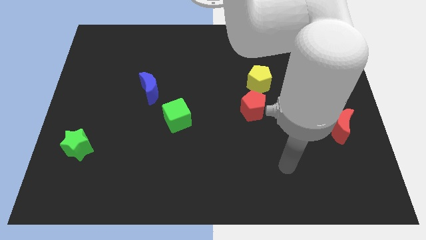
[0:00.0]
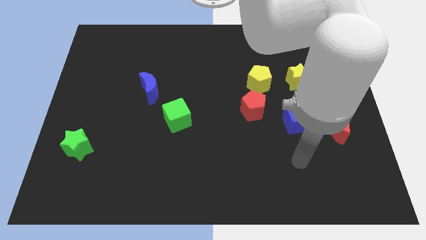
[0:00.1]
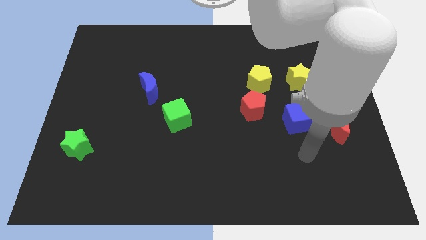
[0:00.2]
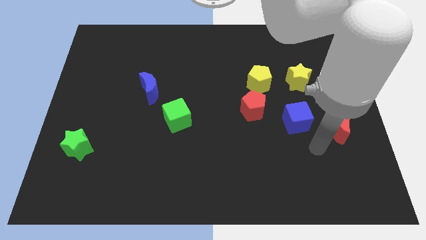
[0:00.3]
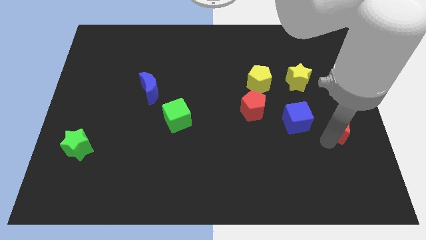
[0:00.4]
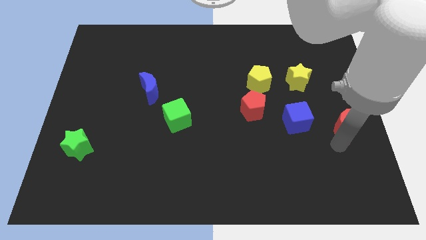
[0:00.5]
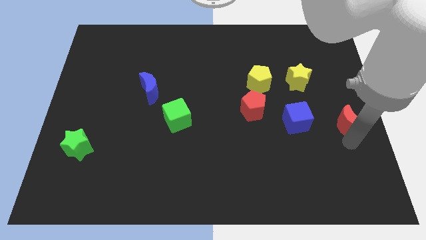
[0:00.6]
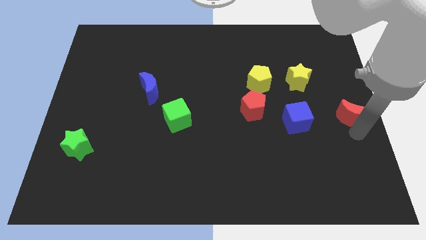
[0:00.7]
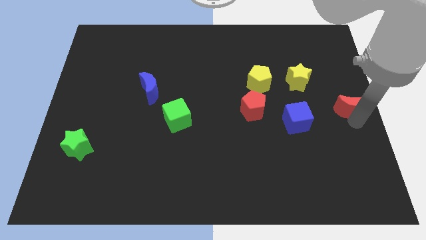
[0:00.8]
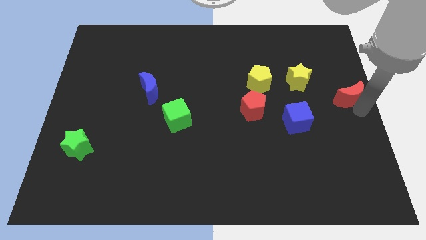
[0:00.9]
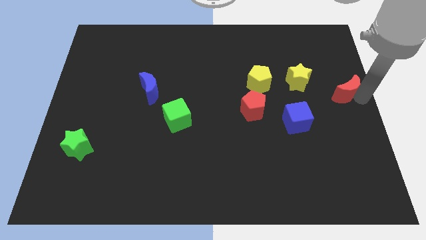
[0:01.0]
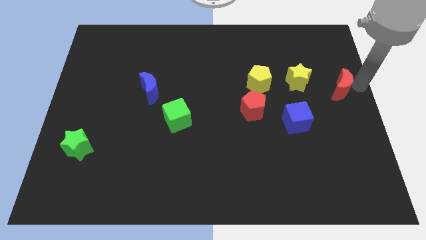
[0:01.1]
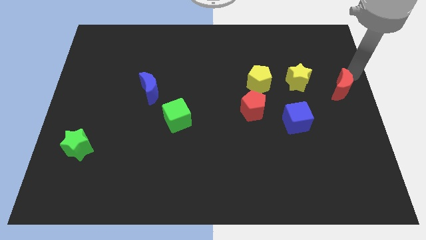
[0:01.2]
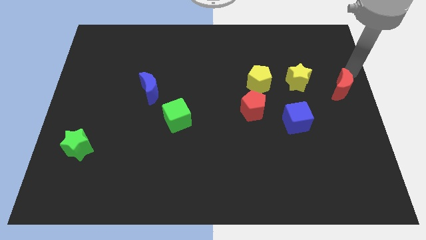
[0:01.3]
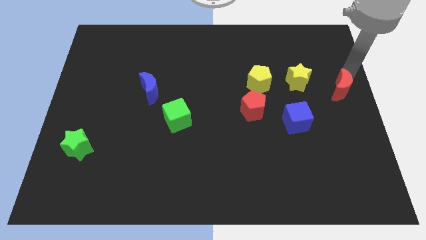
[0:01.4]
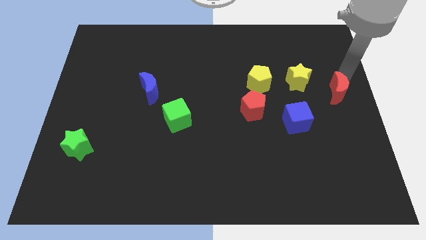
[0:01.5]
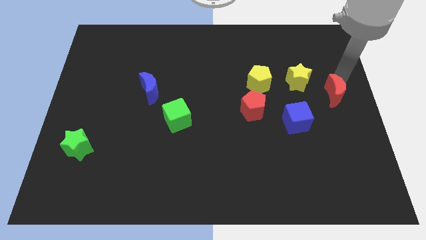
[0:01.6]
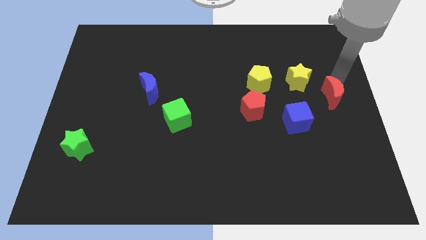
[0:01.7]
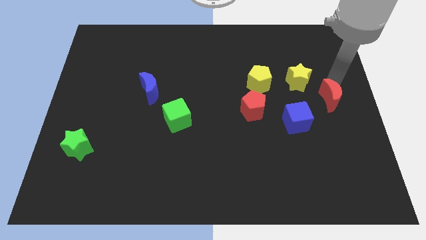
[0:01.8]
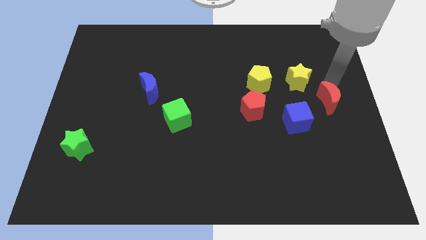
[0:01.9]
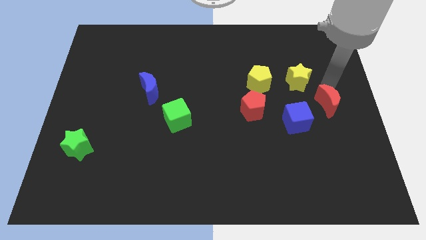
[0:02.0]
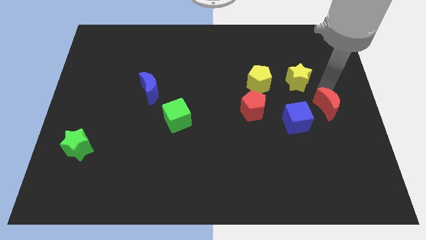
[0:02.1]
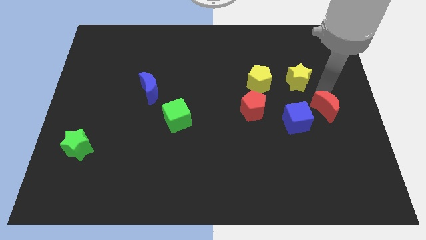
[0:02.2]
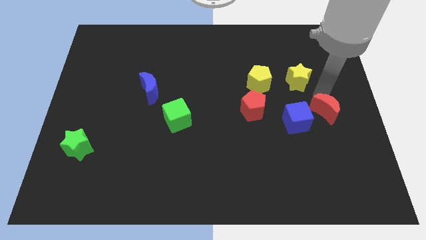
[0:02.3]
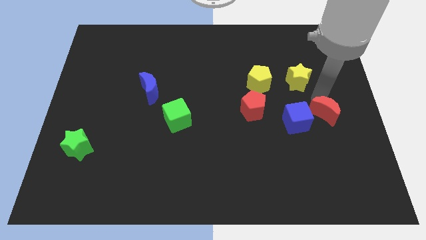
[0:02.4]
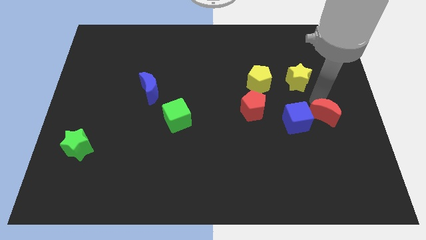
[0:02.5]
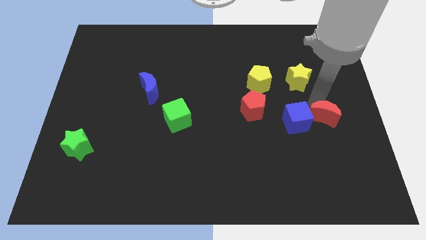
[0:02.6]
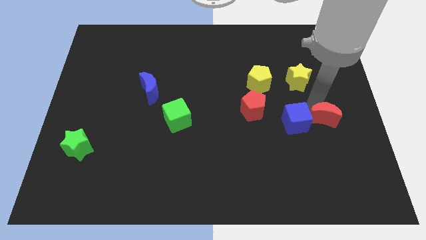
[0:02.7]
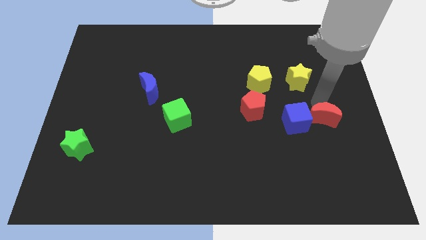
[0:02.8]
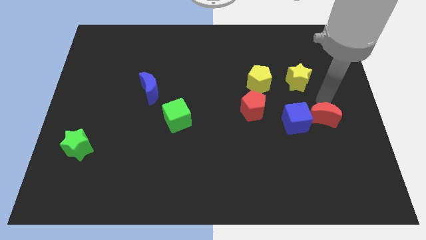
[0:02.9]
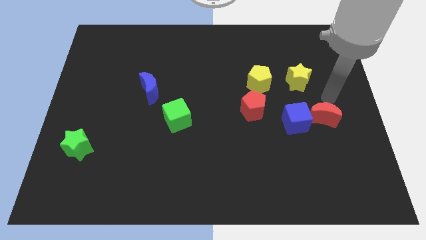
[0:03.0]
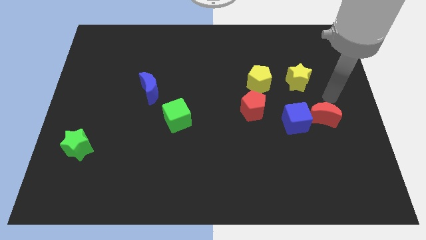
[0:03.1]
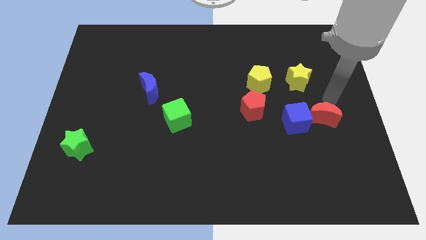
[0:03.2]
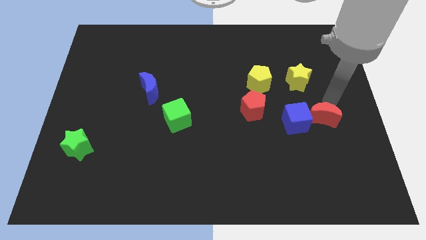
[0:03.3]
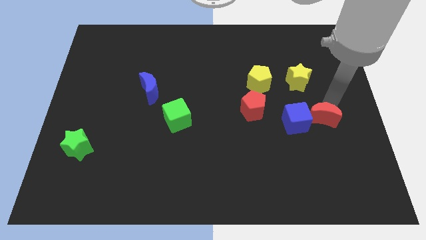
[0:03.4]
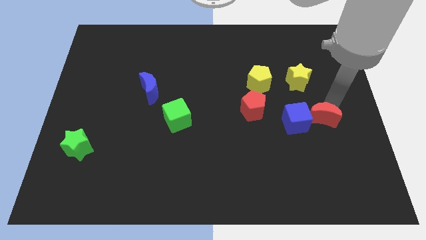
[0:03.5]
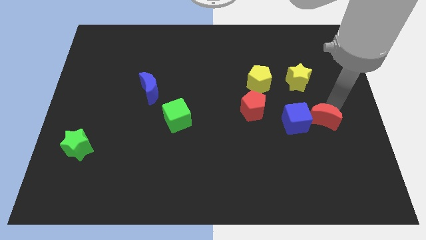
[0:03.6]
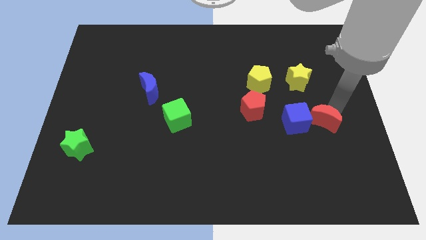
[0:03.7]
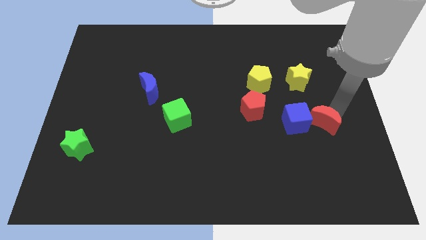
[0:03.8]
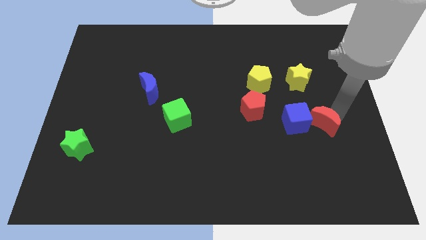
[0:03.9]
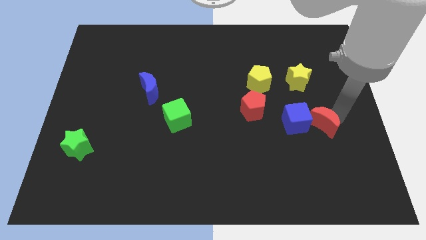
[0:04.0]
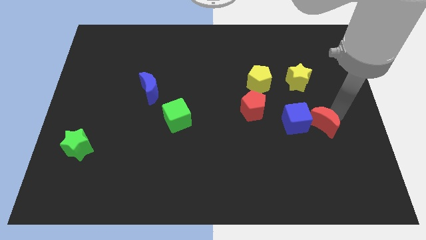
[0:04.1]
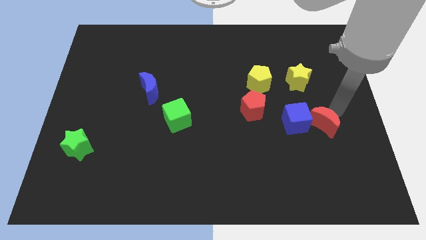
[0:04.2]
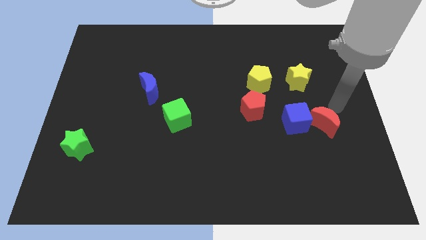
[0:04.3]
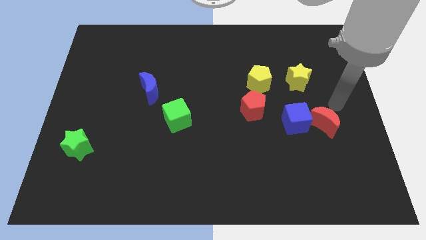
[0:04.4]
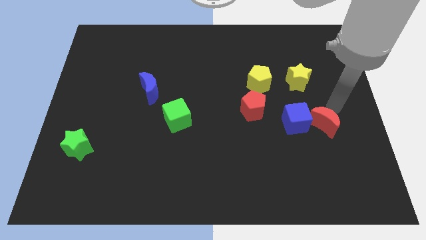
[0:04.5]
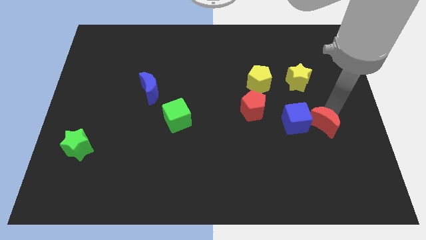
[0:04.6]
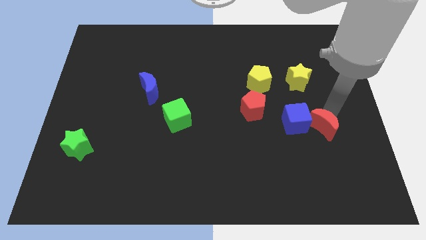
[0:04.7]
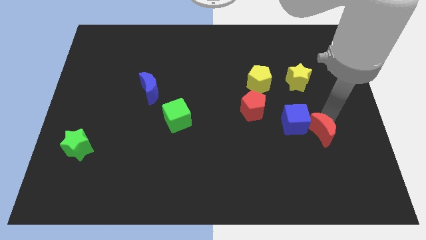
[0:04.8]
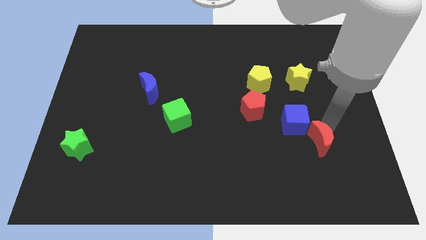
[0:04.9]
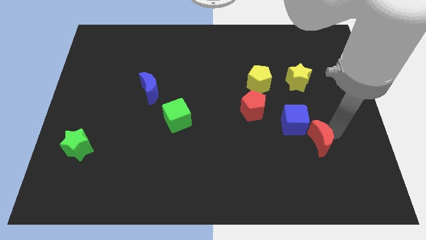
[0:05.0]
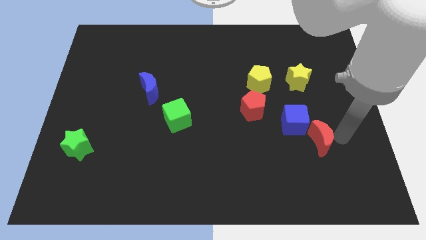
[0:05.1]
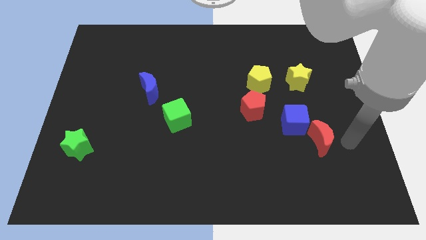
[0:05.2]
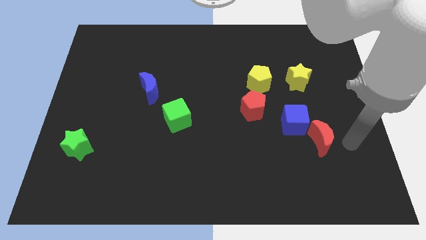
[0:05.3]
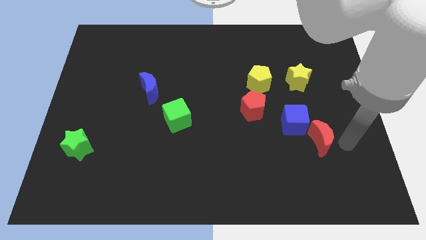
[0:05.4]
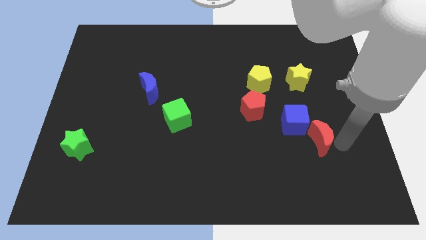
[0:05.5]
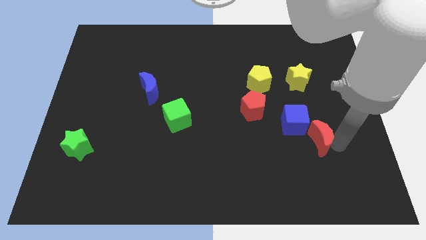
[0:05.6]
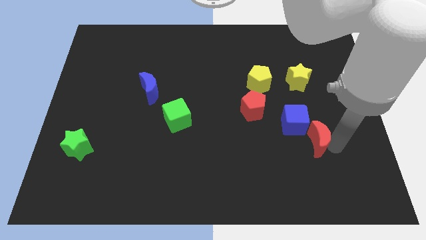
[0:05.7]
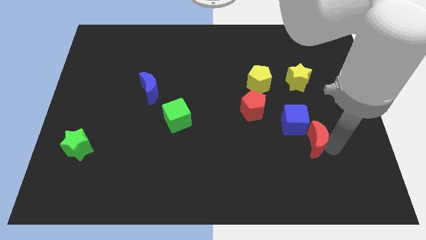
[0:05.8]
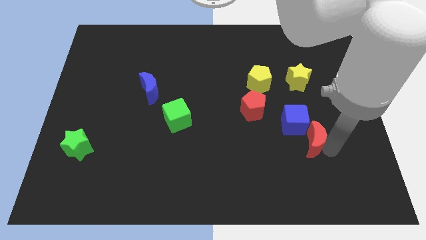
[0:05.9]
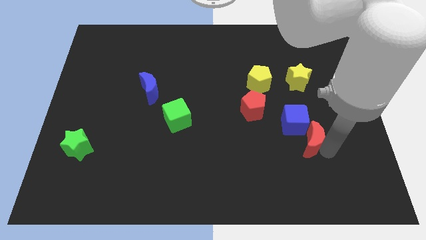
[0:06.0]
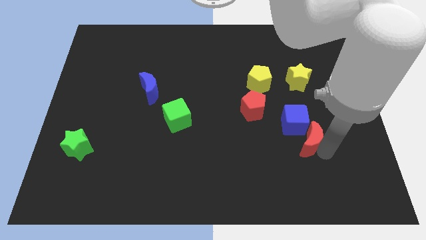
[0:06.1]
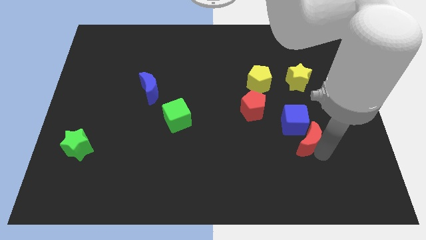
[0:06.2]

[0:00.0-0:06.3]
slide the red moon to the left a little

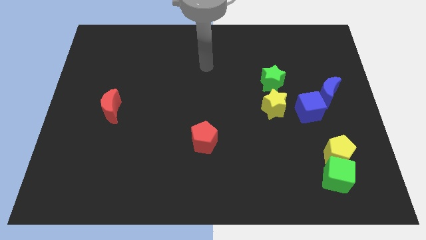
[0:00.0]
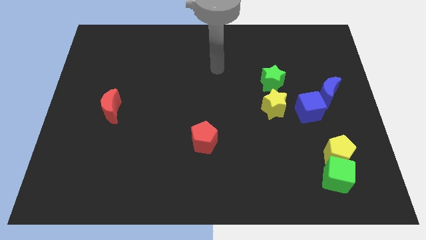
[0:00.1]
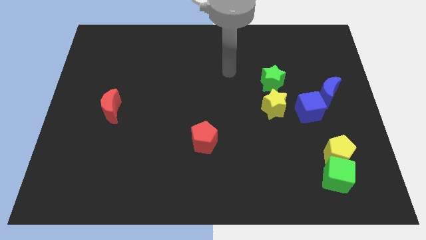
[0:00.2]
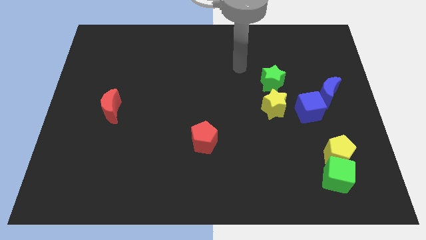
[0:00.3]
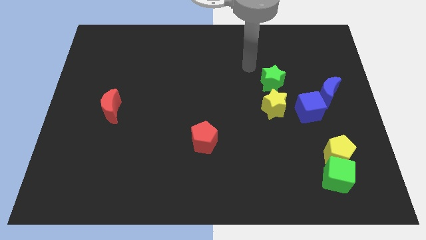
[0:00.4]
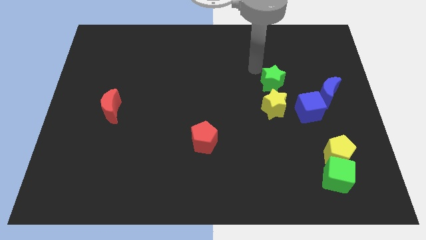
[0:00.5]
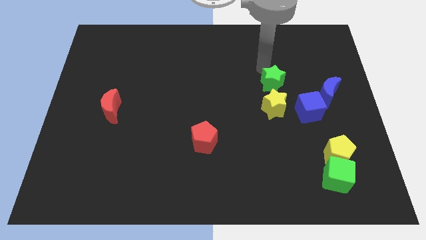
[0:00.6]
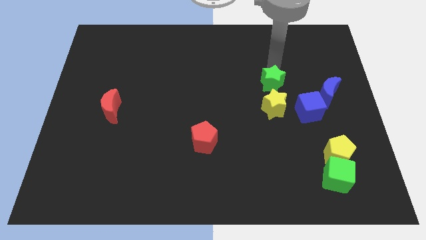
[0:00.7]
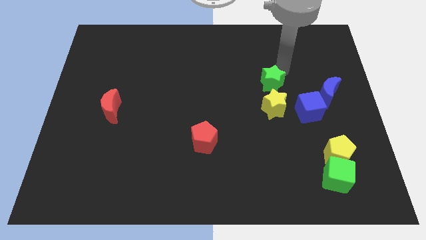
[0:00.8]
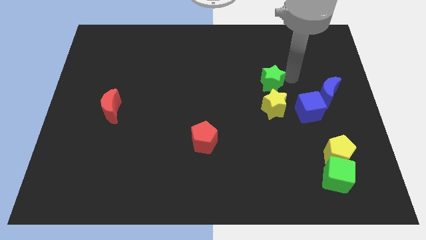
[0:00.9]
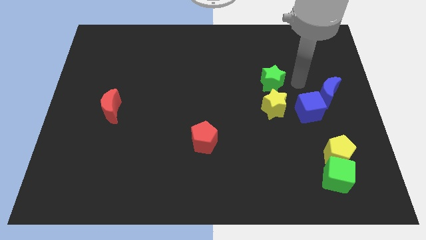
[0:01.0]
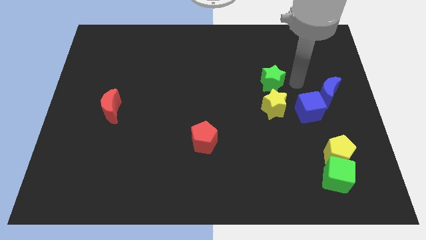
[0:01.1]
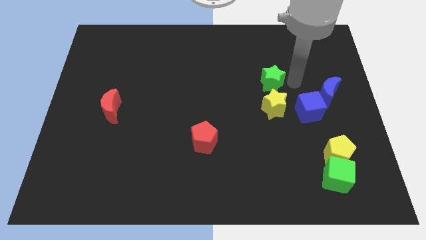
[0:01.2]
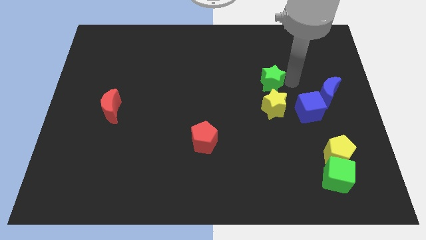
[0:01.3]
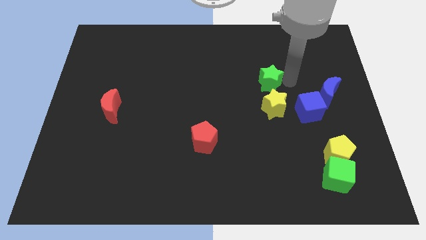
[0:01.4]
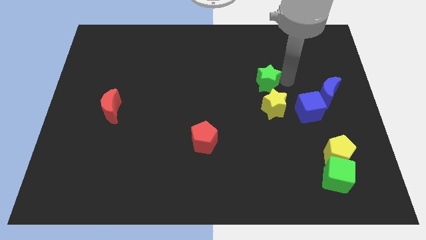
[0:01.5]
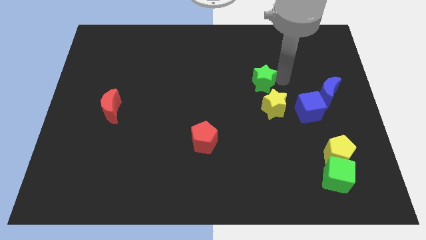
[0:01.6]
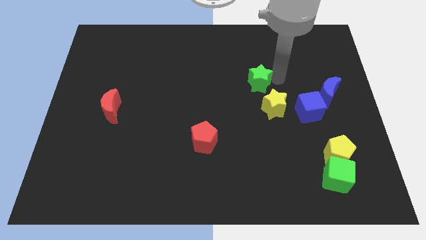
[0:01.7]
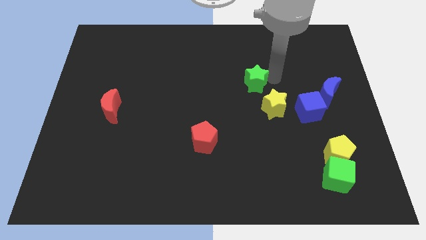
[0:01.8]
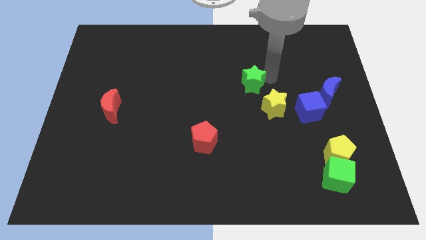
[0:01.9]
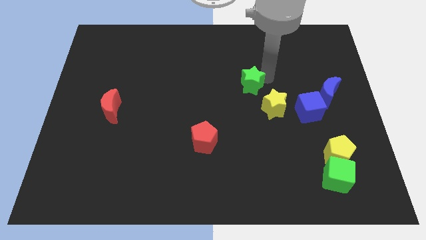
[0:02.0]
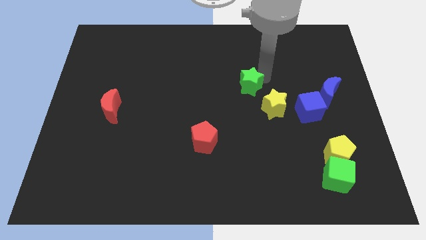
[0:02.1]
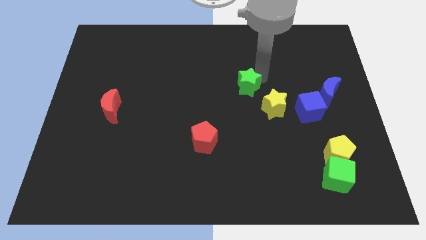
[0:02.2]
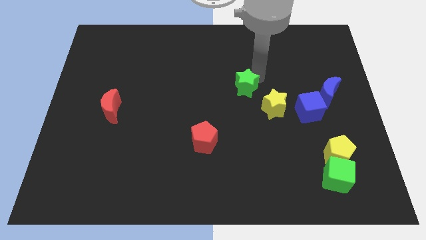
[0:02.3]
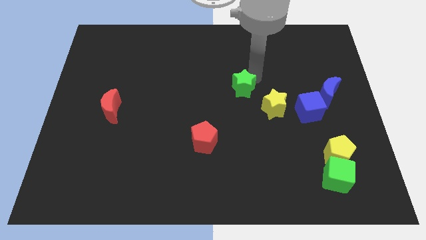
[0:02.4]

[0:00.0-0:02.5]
move the green star left slightly
